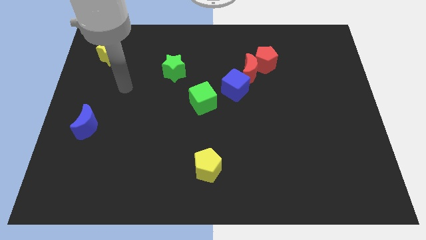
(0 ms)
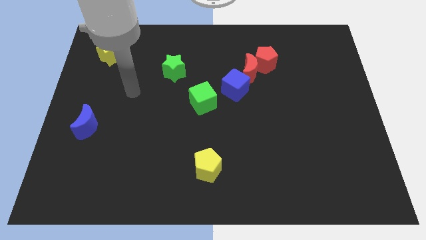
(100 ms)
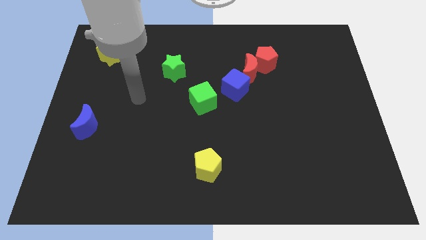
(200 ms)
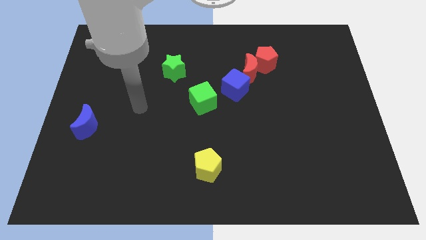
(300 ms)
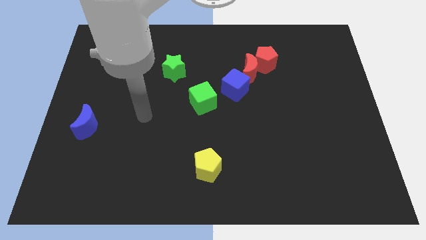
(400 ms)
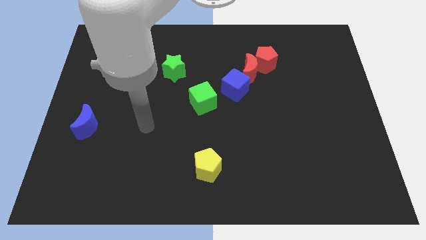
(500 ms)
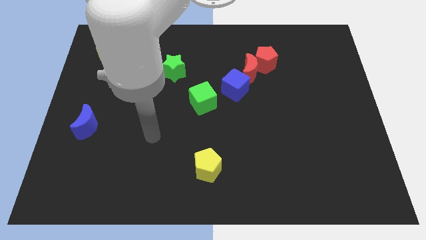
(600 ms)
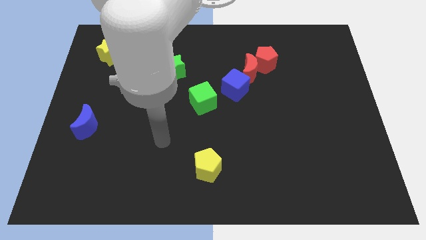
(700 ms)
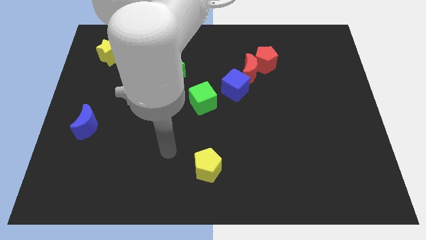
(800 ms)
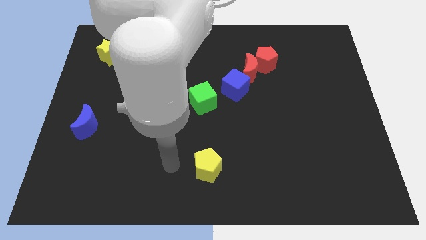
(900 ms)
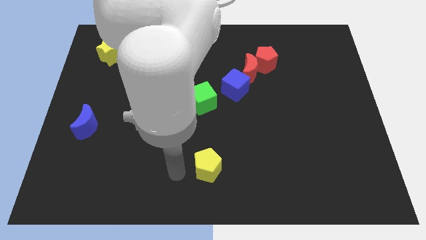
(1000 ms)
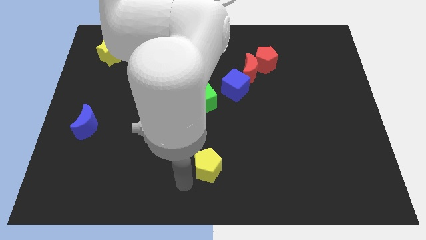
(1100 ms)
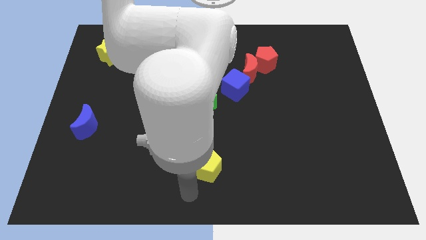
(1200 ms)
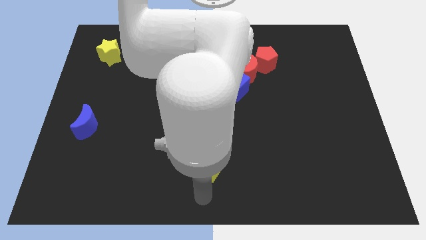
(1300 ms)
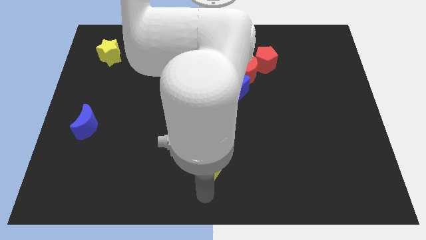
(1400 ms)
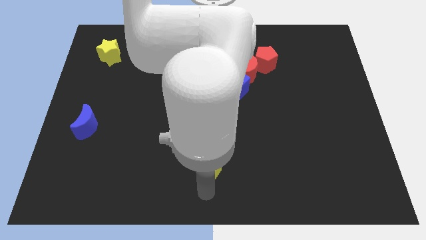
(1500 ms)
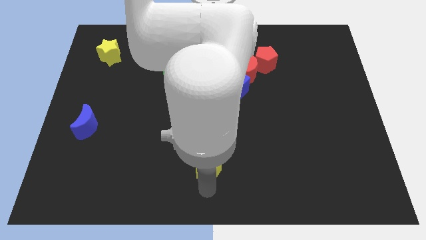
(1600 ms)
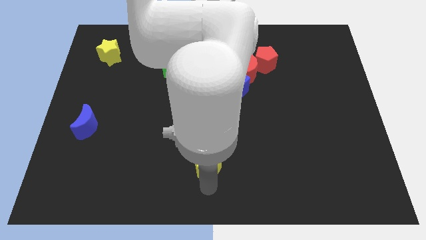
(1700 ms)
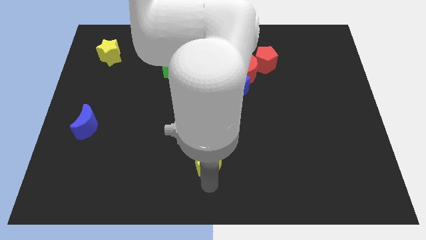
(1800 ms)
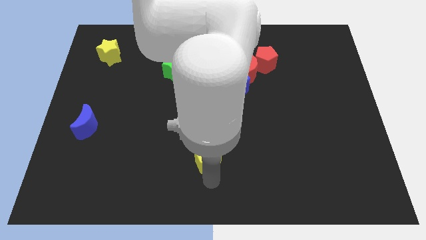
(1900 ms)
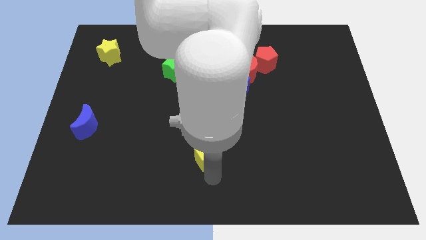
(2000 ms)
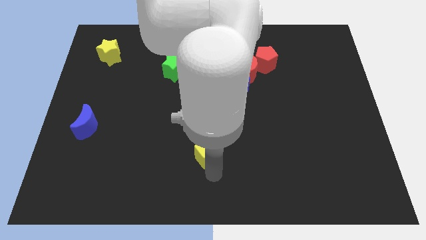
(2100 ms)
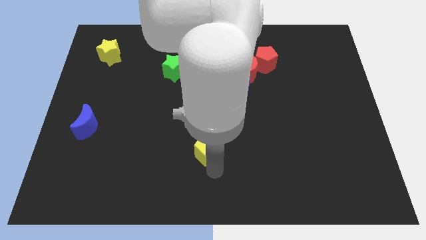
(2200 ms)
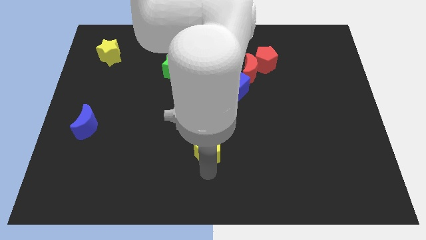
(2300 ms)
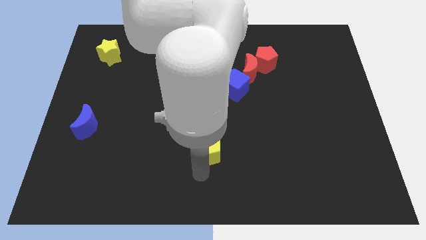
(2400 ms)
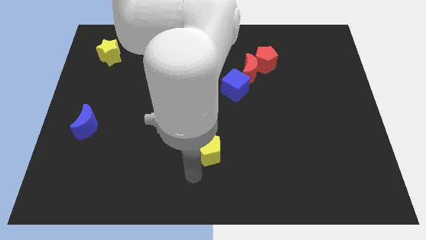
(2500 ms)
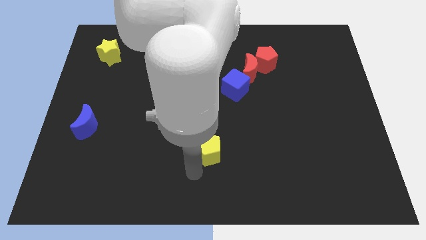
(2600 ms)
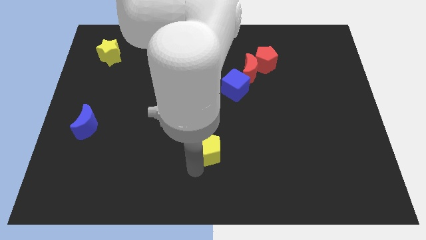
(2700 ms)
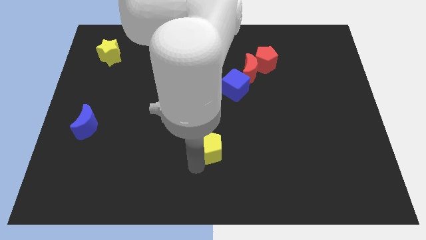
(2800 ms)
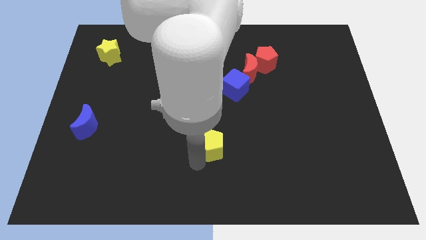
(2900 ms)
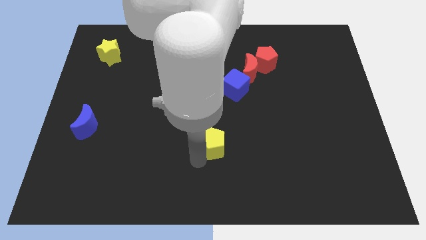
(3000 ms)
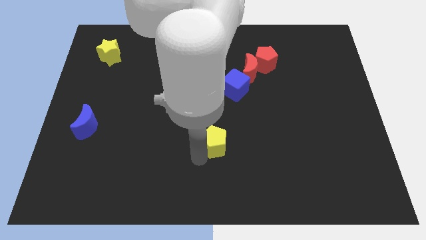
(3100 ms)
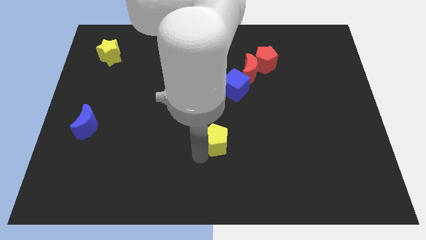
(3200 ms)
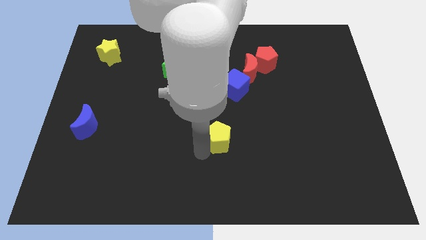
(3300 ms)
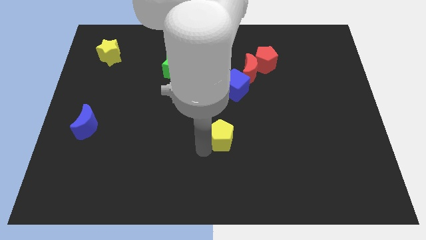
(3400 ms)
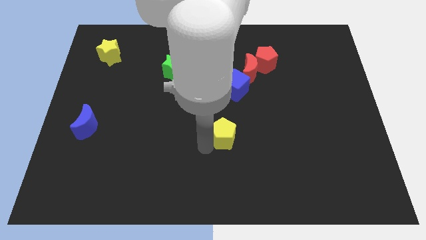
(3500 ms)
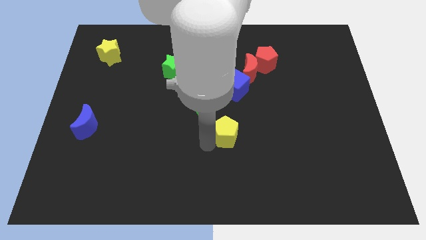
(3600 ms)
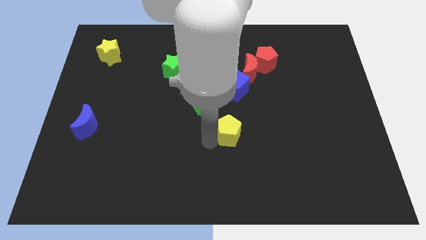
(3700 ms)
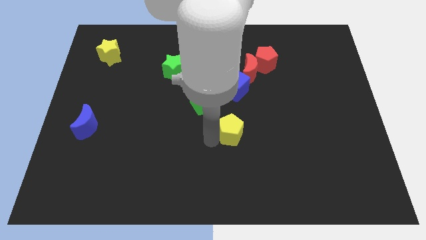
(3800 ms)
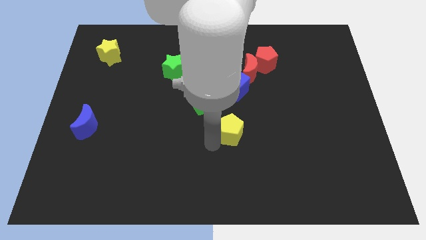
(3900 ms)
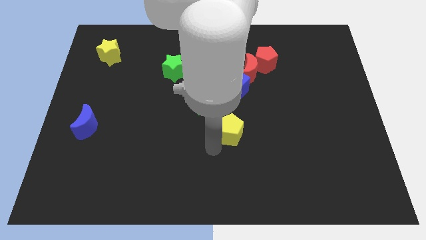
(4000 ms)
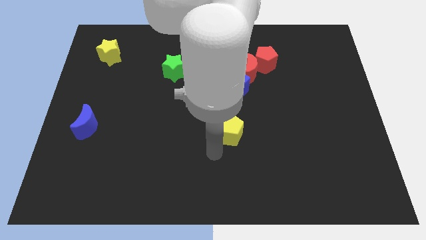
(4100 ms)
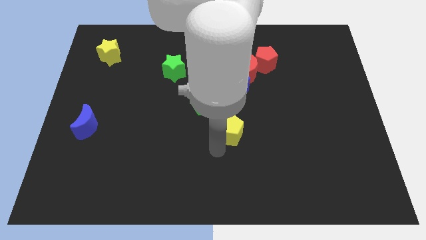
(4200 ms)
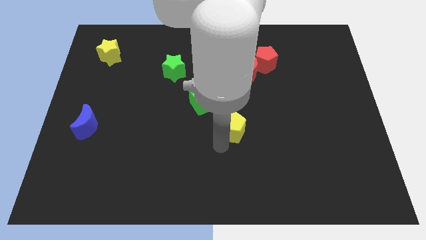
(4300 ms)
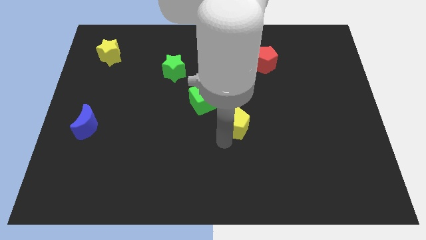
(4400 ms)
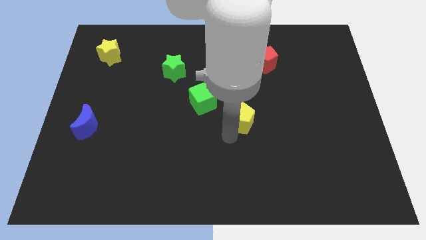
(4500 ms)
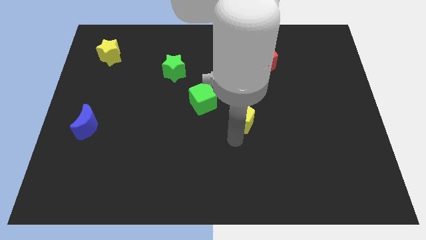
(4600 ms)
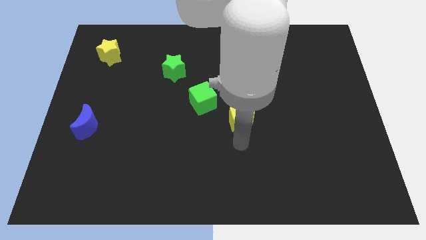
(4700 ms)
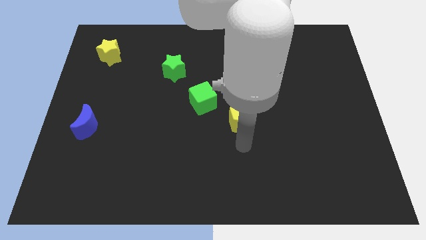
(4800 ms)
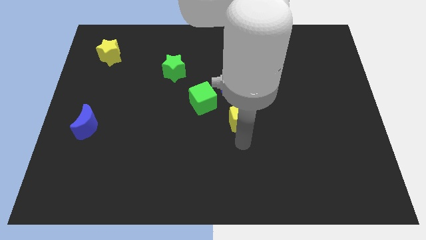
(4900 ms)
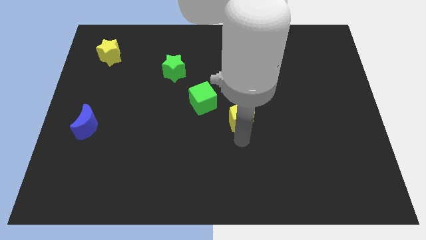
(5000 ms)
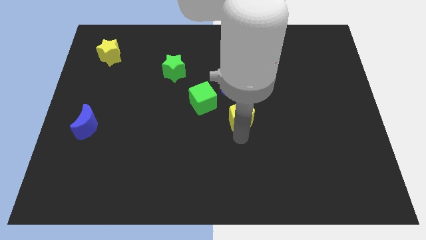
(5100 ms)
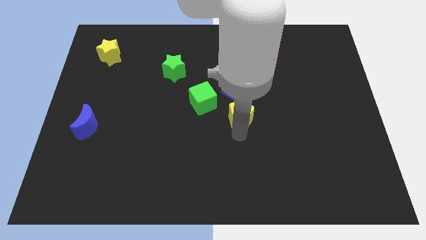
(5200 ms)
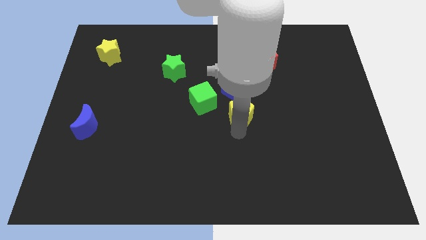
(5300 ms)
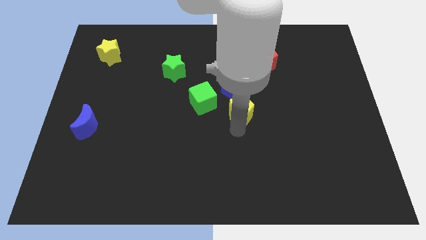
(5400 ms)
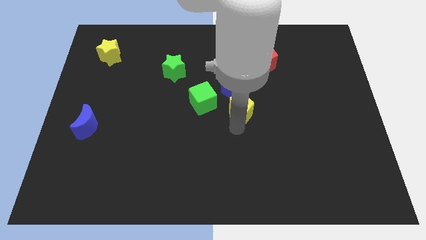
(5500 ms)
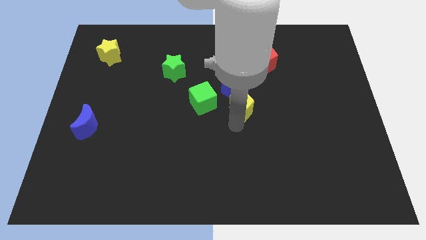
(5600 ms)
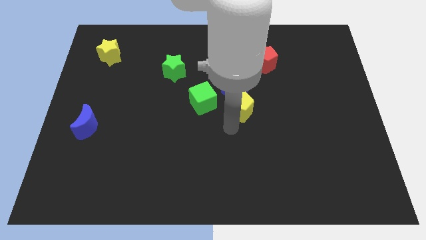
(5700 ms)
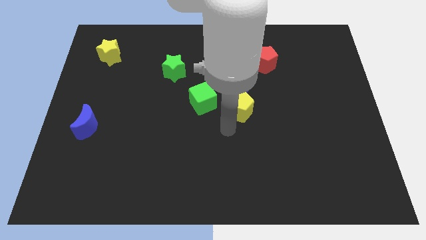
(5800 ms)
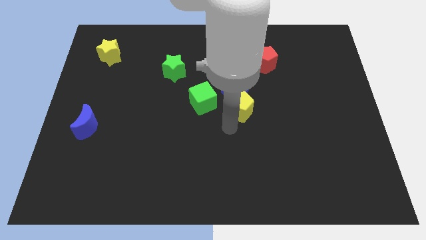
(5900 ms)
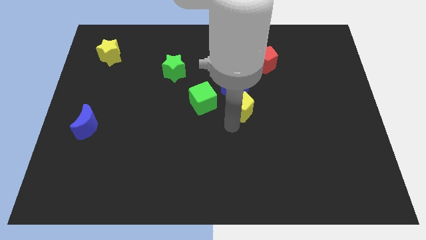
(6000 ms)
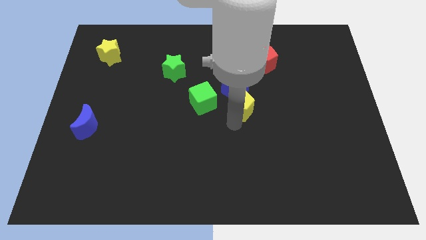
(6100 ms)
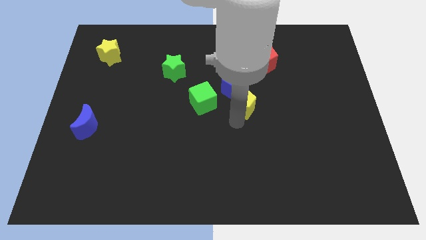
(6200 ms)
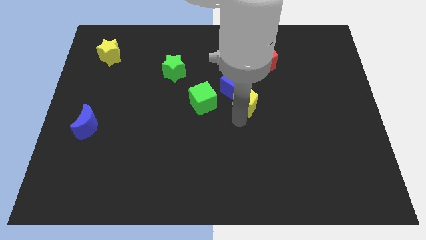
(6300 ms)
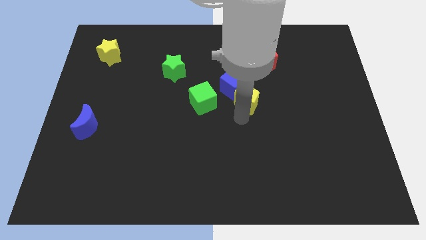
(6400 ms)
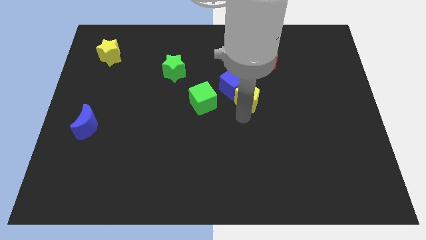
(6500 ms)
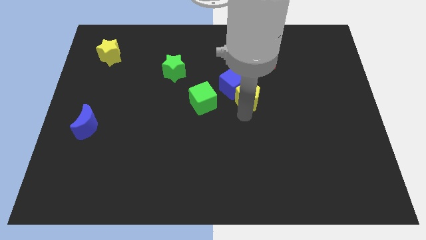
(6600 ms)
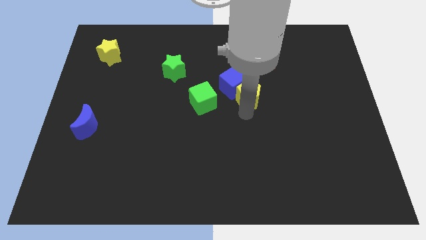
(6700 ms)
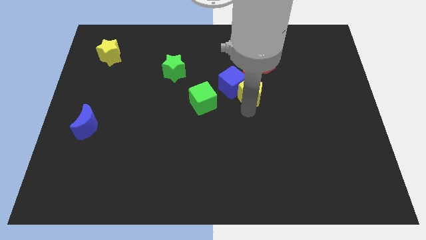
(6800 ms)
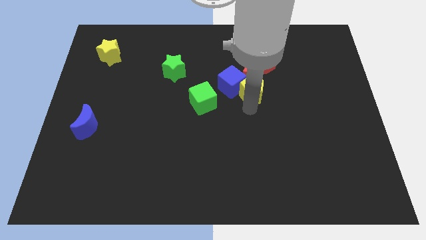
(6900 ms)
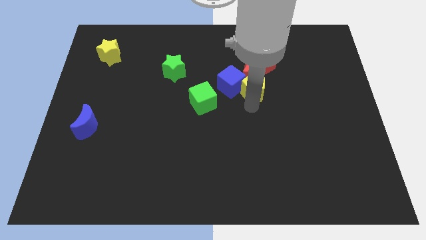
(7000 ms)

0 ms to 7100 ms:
push the yellow pentagon towards the red moon

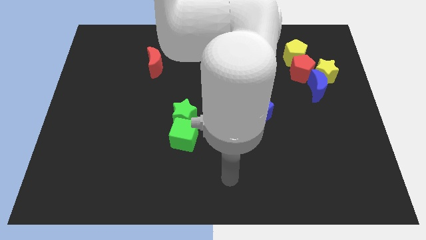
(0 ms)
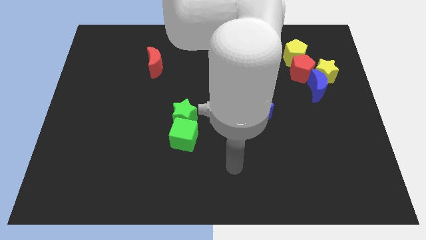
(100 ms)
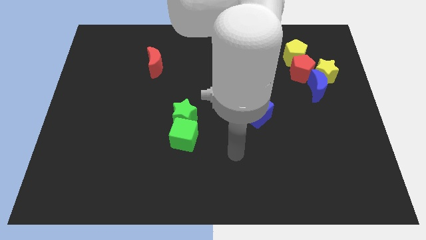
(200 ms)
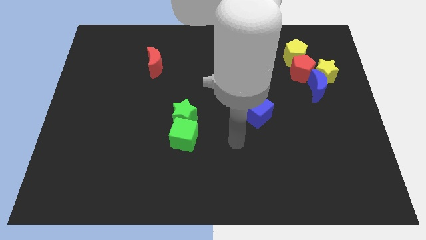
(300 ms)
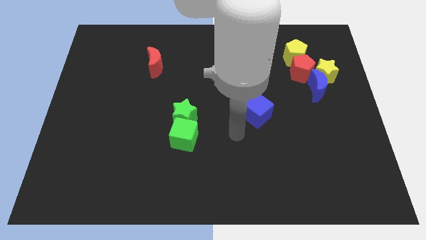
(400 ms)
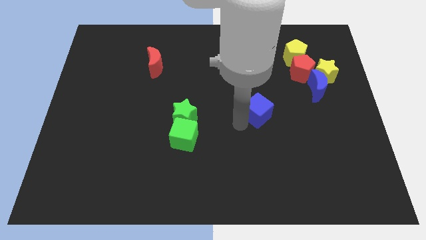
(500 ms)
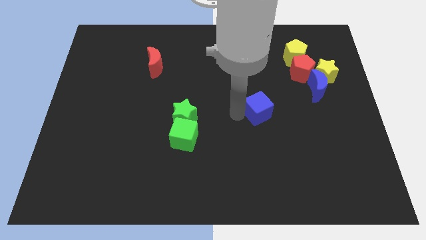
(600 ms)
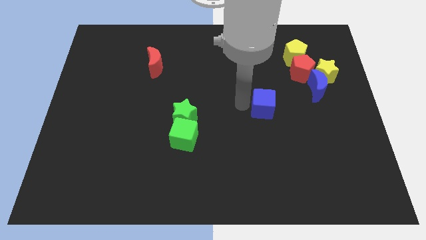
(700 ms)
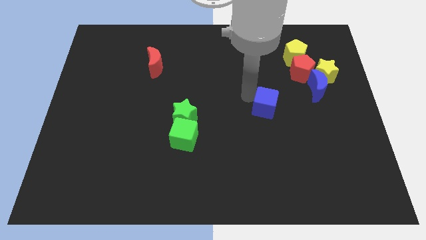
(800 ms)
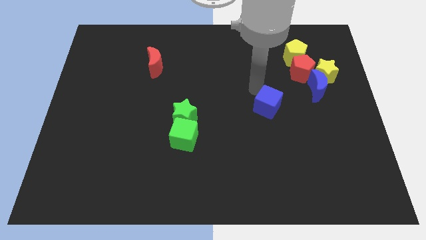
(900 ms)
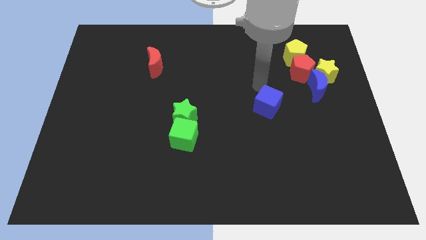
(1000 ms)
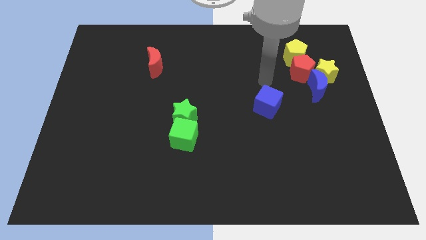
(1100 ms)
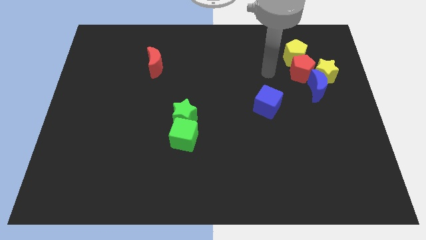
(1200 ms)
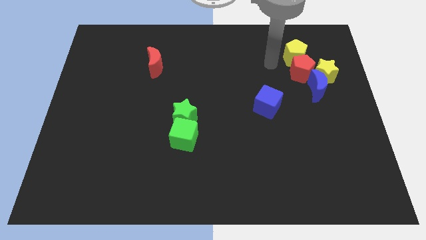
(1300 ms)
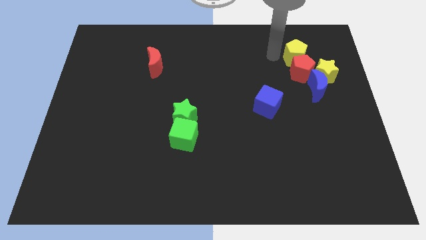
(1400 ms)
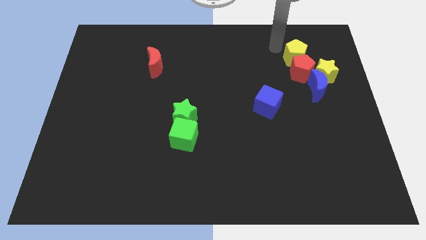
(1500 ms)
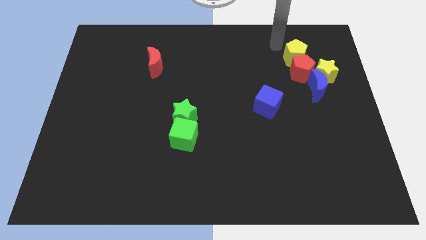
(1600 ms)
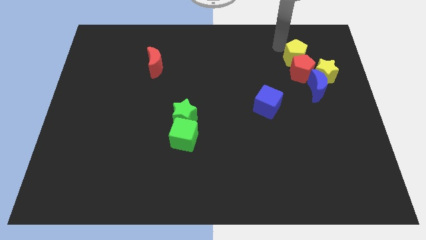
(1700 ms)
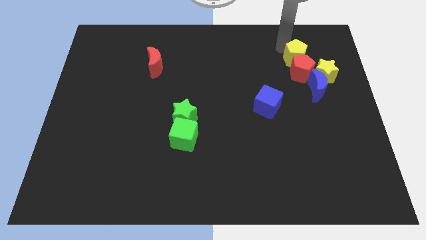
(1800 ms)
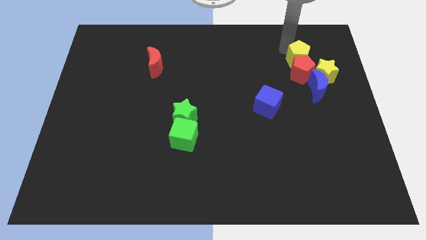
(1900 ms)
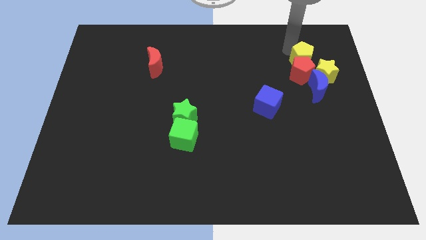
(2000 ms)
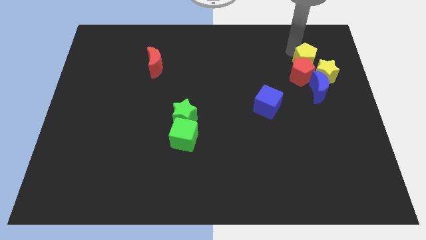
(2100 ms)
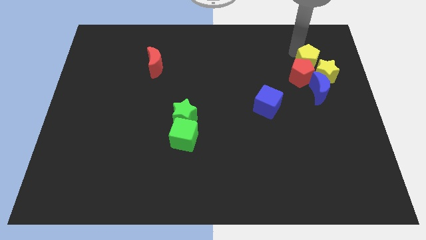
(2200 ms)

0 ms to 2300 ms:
push the yellow pentagon close to the yellow star
